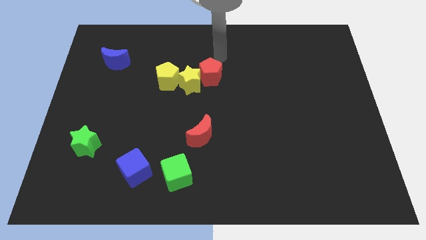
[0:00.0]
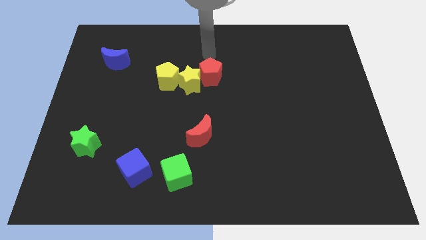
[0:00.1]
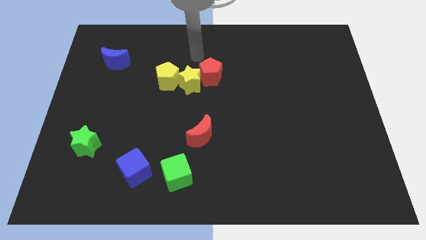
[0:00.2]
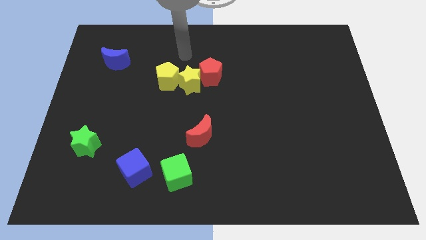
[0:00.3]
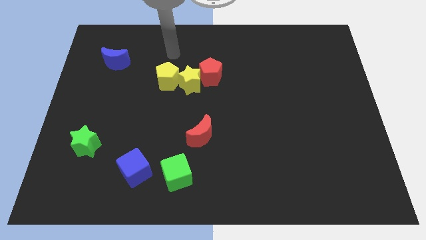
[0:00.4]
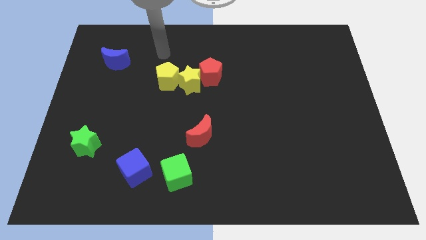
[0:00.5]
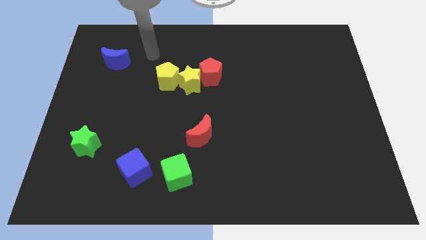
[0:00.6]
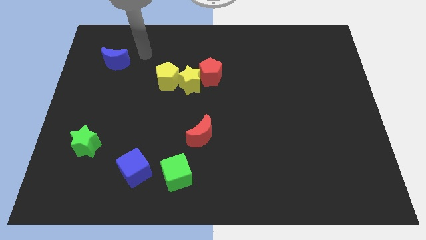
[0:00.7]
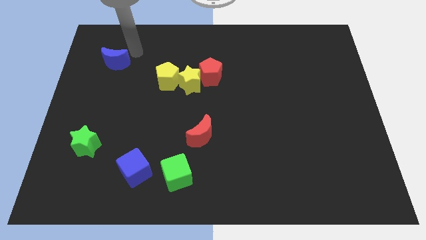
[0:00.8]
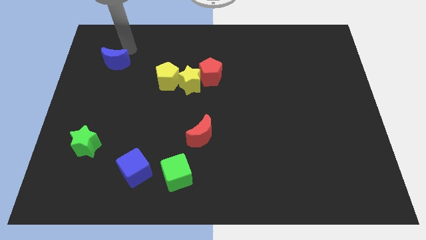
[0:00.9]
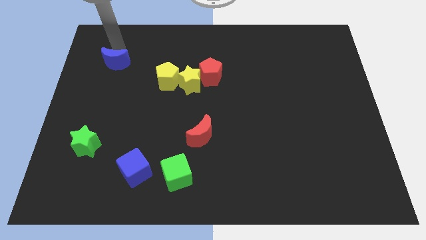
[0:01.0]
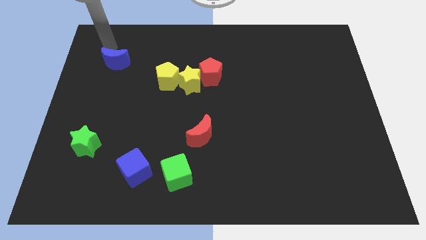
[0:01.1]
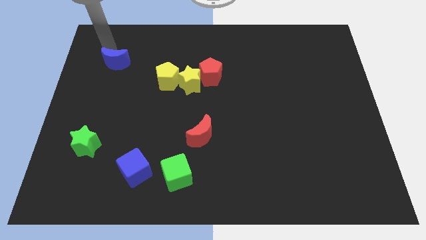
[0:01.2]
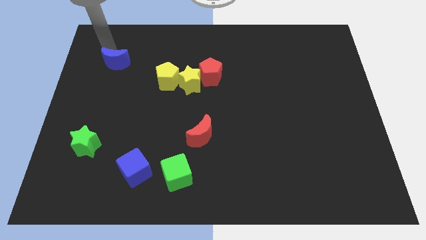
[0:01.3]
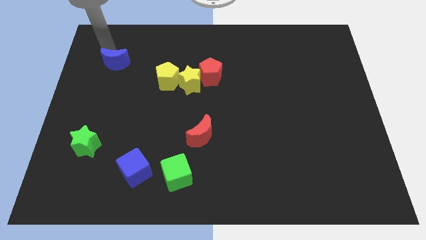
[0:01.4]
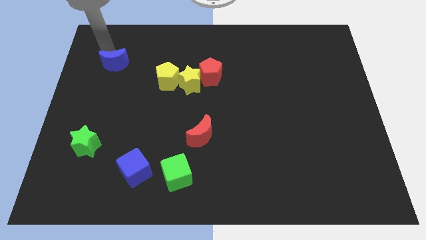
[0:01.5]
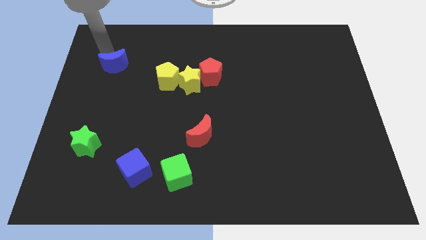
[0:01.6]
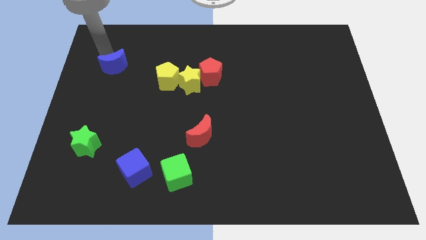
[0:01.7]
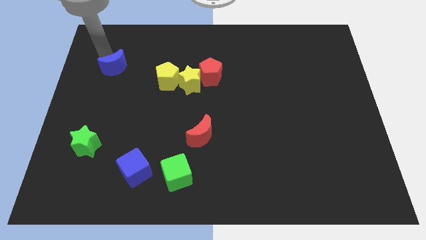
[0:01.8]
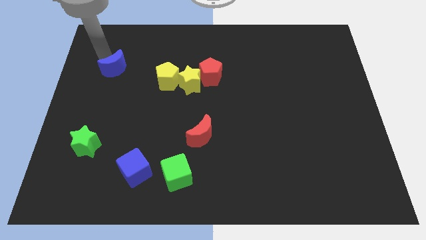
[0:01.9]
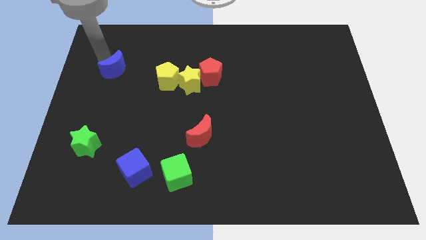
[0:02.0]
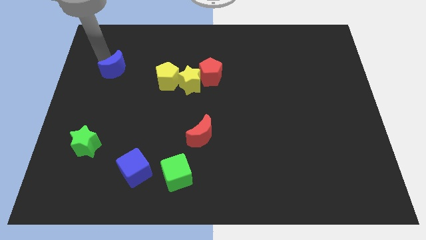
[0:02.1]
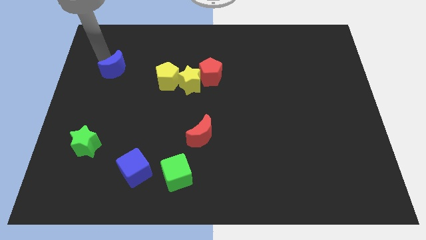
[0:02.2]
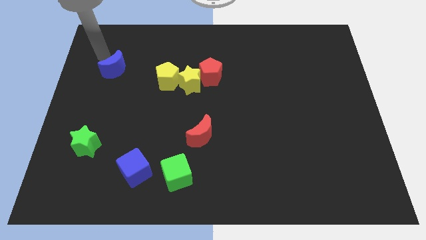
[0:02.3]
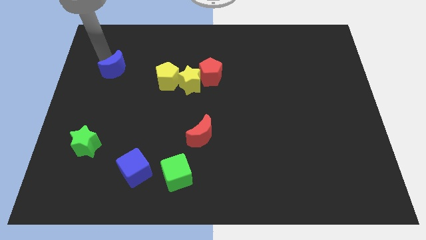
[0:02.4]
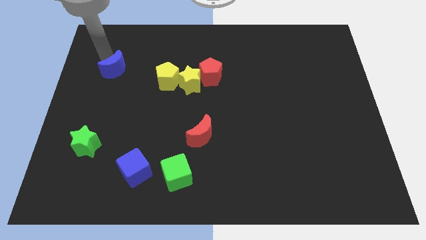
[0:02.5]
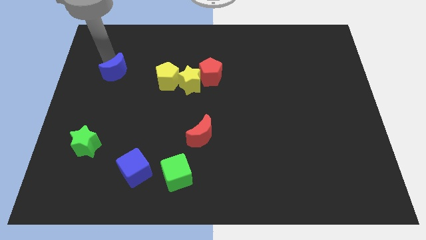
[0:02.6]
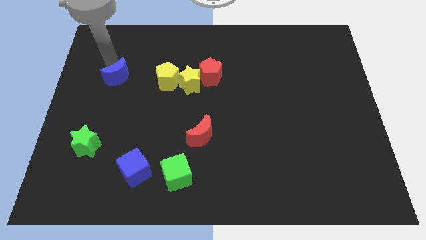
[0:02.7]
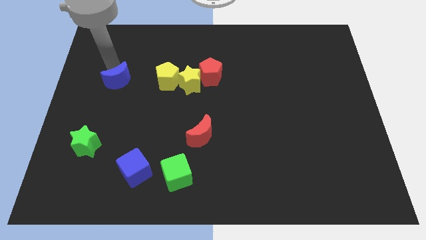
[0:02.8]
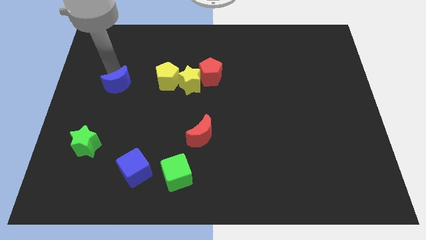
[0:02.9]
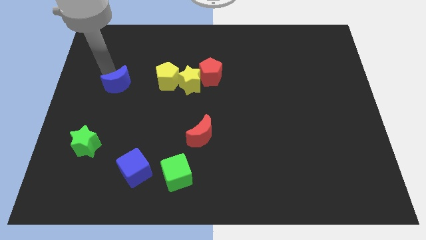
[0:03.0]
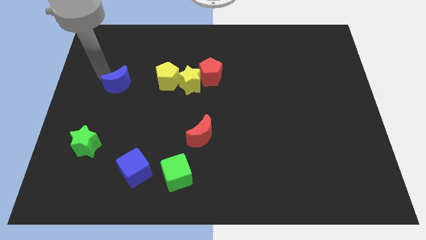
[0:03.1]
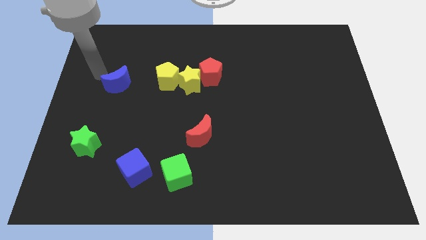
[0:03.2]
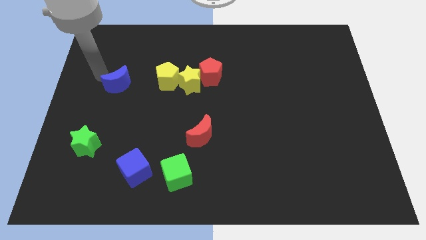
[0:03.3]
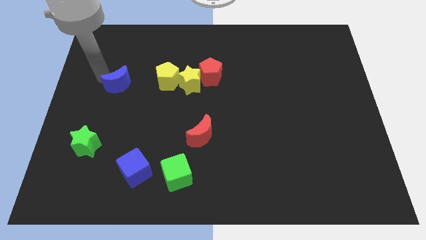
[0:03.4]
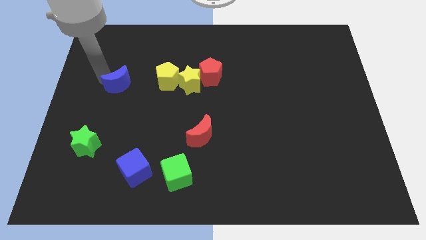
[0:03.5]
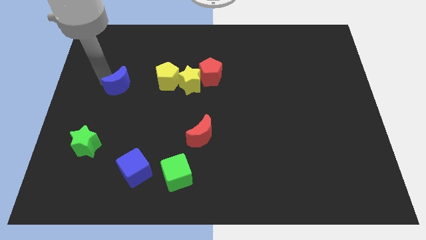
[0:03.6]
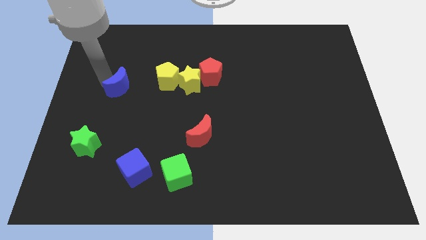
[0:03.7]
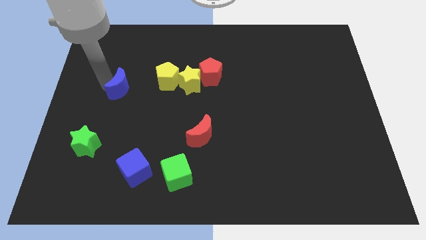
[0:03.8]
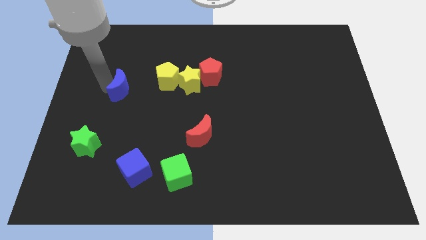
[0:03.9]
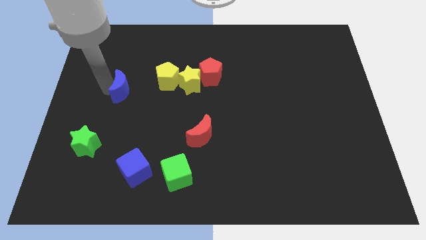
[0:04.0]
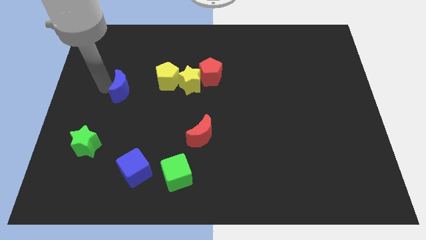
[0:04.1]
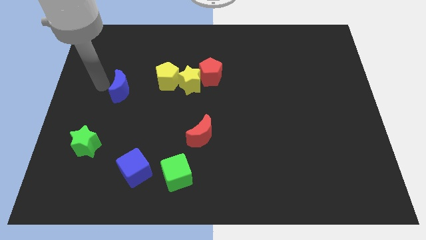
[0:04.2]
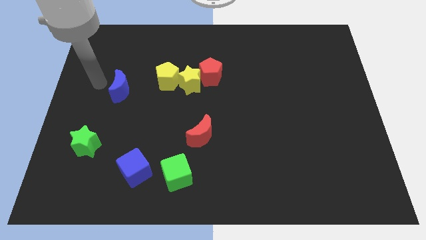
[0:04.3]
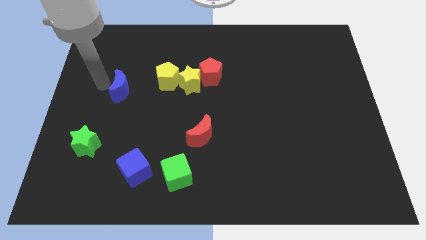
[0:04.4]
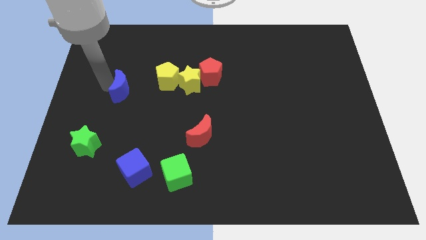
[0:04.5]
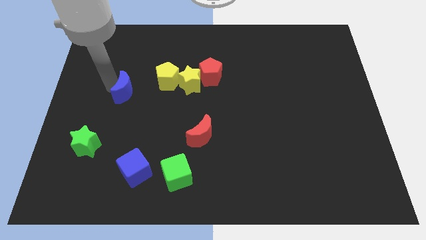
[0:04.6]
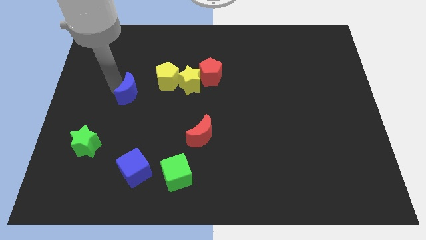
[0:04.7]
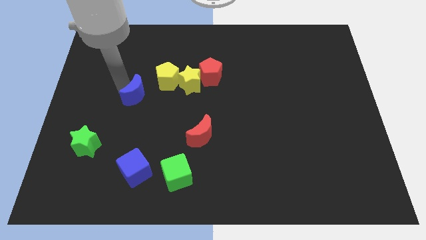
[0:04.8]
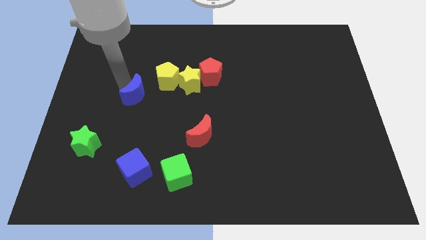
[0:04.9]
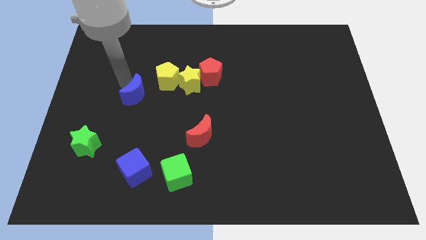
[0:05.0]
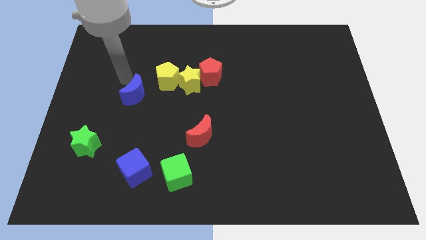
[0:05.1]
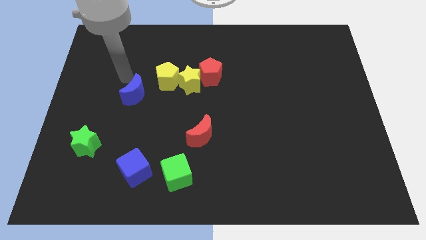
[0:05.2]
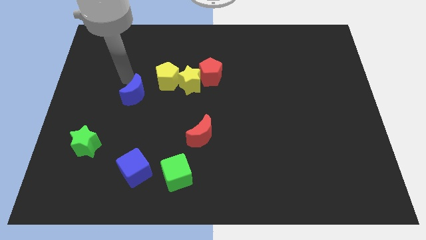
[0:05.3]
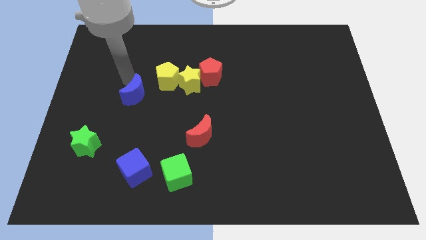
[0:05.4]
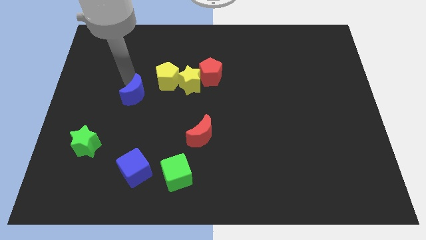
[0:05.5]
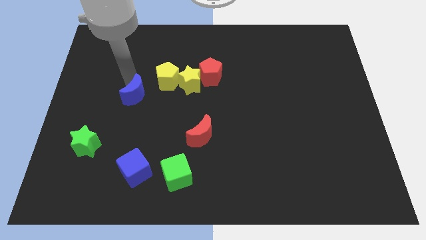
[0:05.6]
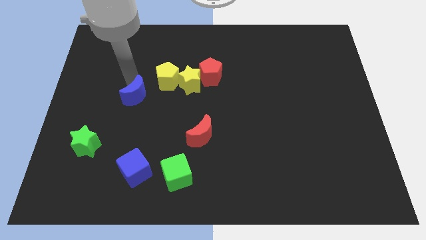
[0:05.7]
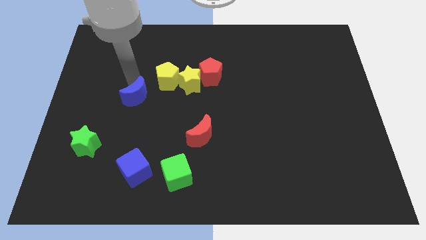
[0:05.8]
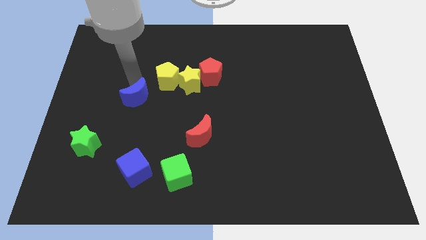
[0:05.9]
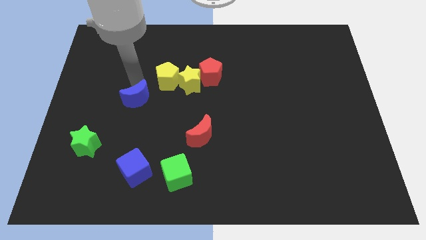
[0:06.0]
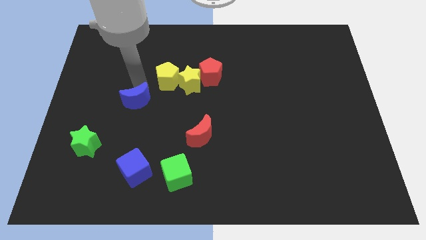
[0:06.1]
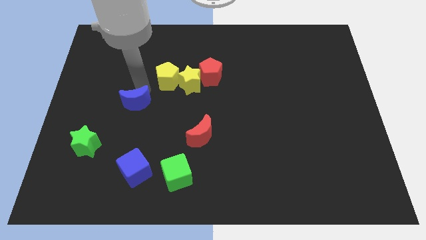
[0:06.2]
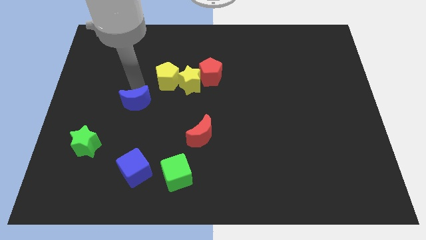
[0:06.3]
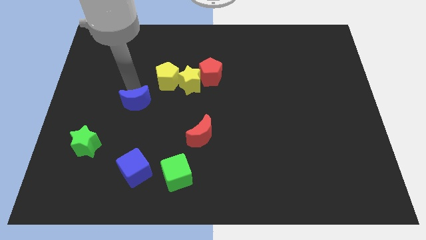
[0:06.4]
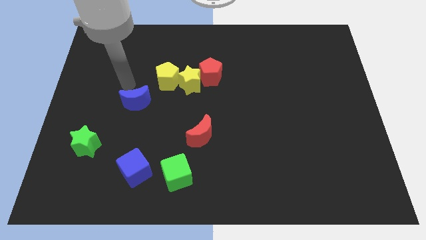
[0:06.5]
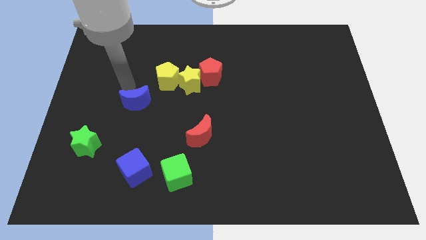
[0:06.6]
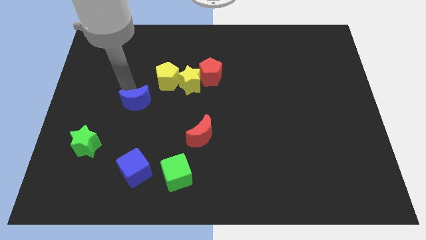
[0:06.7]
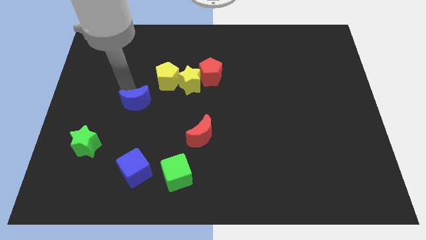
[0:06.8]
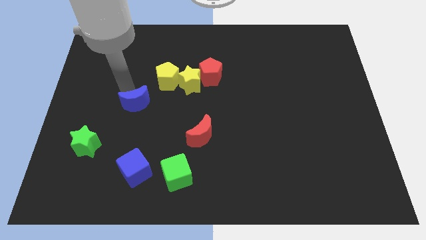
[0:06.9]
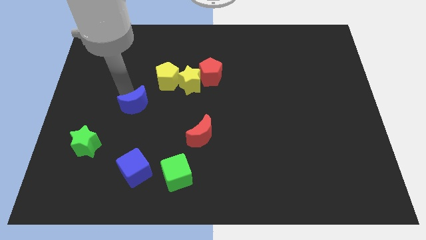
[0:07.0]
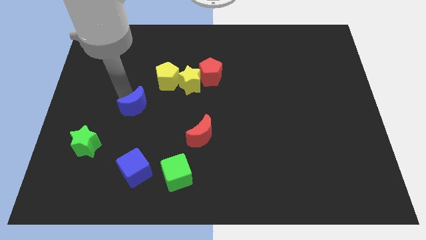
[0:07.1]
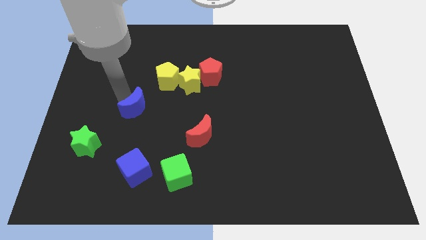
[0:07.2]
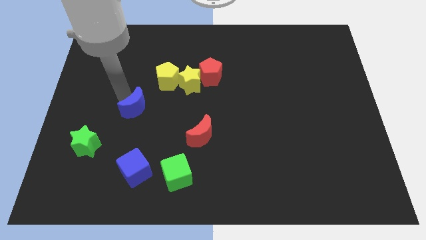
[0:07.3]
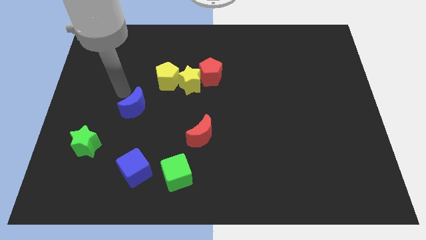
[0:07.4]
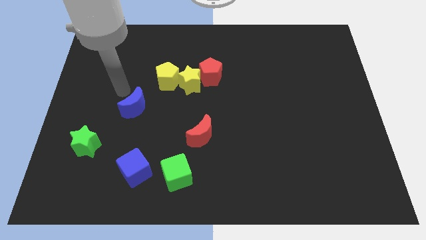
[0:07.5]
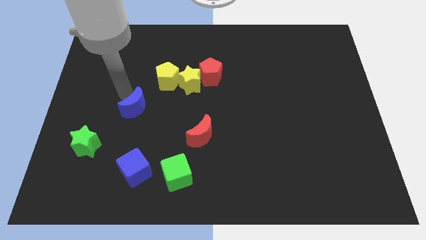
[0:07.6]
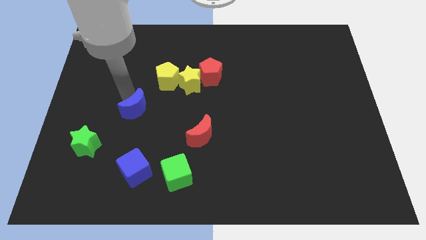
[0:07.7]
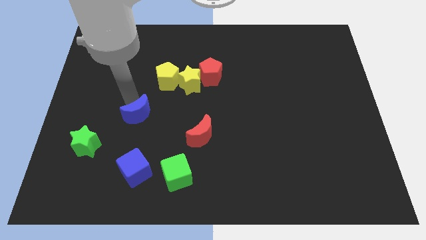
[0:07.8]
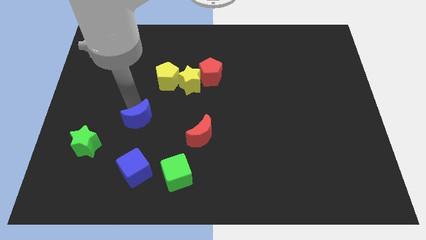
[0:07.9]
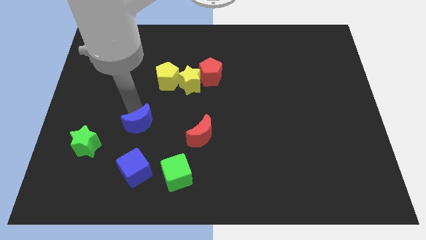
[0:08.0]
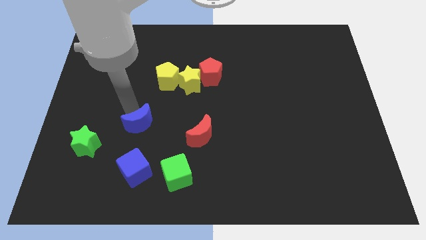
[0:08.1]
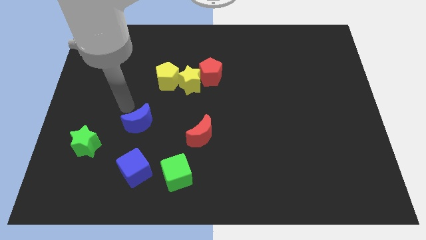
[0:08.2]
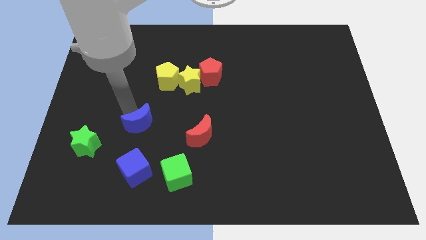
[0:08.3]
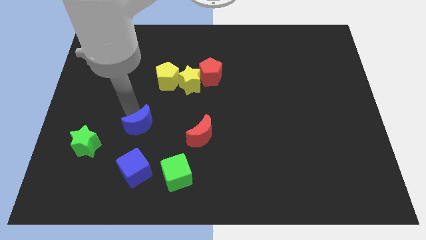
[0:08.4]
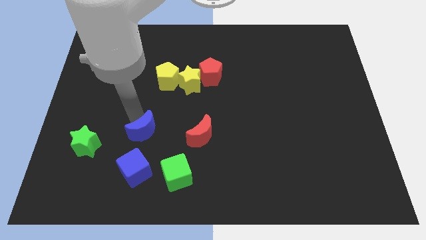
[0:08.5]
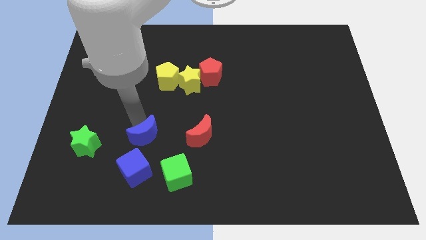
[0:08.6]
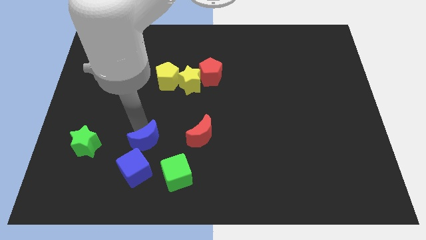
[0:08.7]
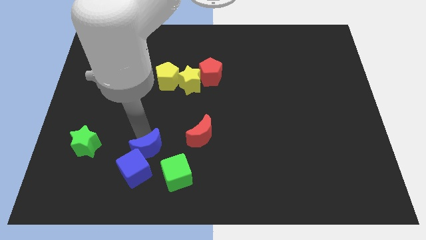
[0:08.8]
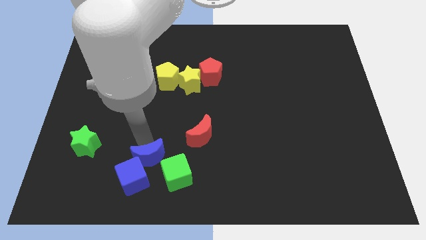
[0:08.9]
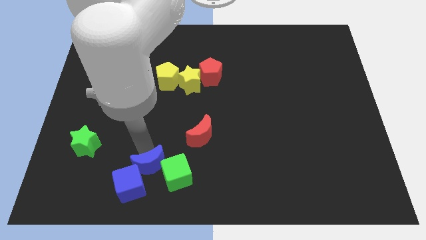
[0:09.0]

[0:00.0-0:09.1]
put the blue moon next to the green cube
